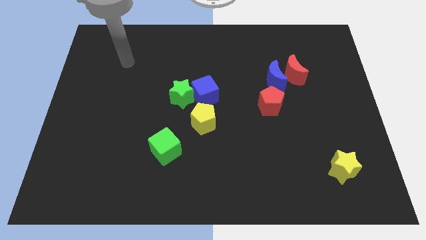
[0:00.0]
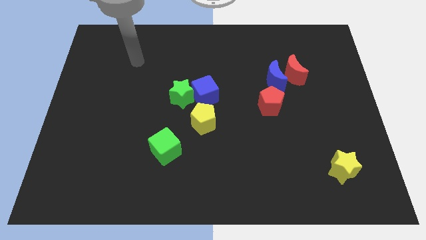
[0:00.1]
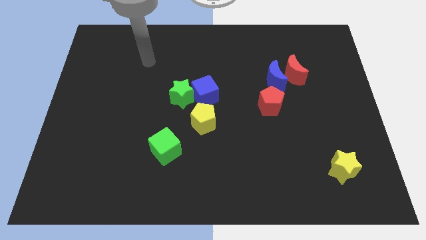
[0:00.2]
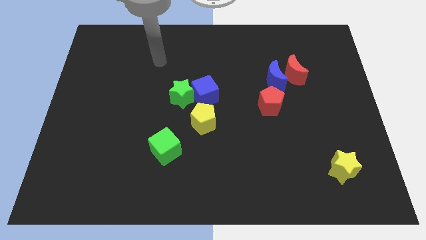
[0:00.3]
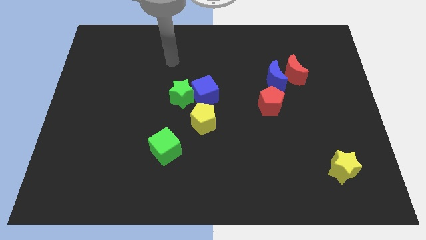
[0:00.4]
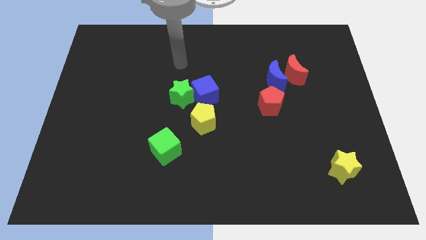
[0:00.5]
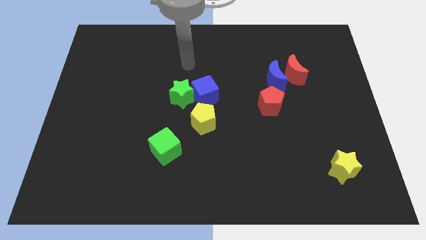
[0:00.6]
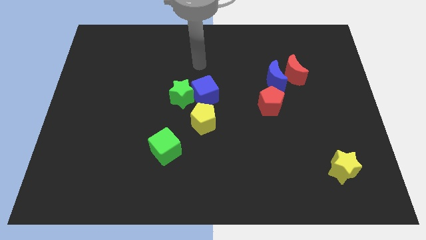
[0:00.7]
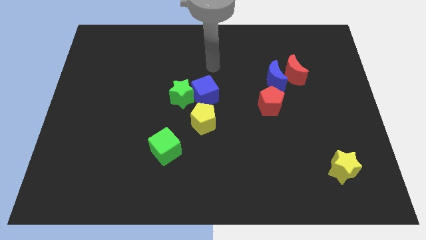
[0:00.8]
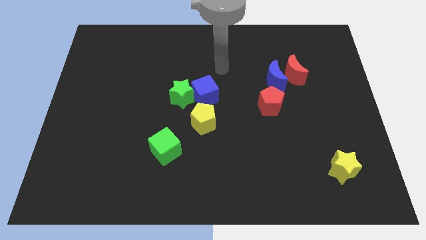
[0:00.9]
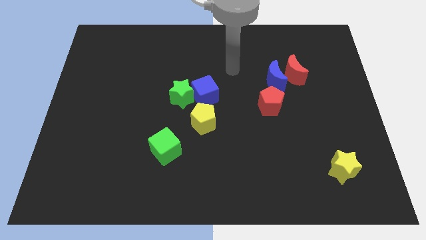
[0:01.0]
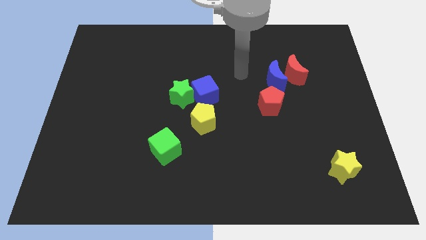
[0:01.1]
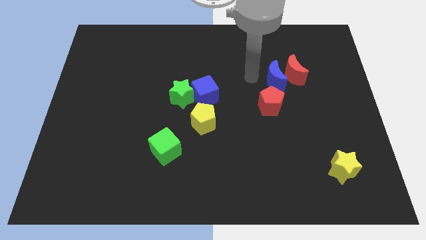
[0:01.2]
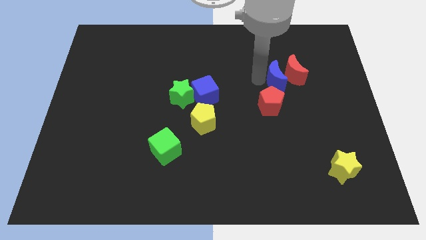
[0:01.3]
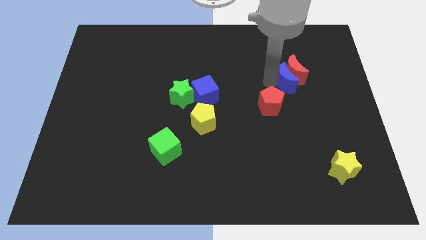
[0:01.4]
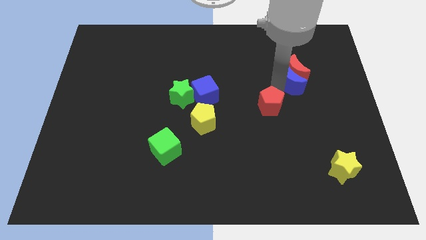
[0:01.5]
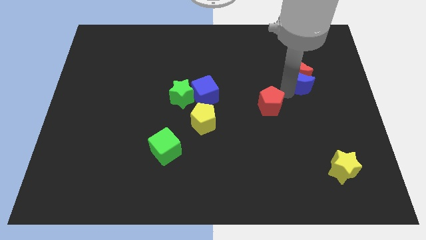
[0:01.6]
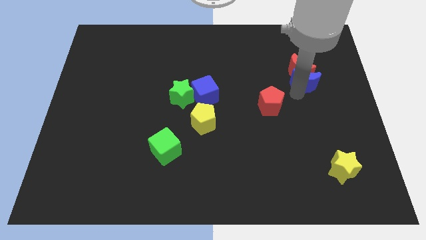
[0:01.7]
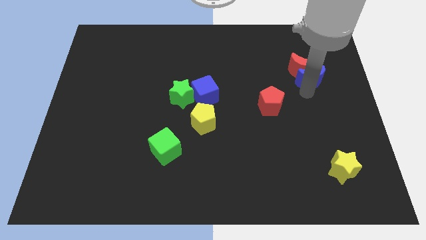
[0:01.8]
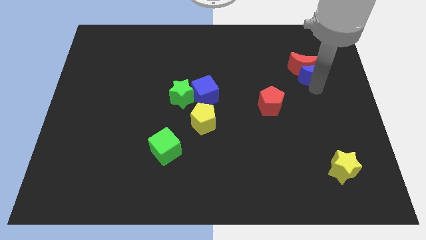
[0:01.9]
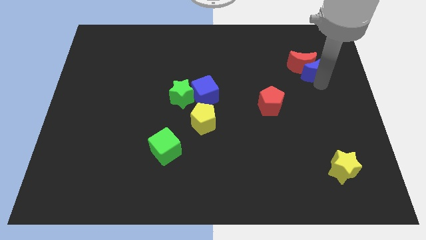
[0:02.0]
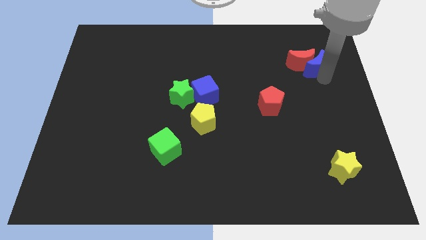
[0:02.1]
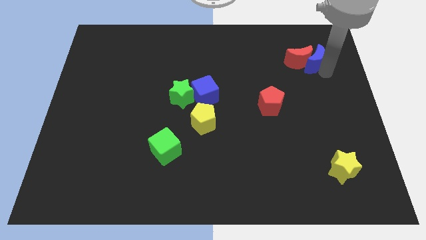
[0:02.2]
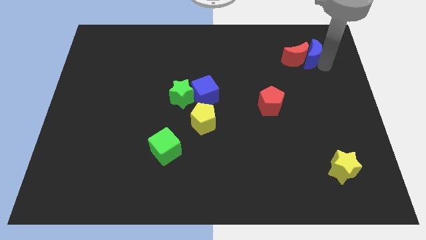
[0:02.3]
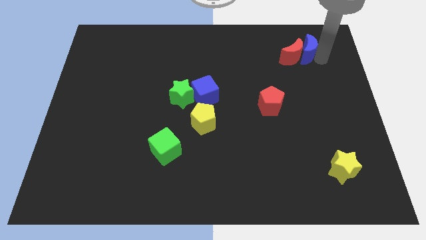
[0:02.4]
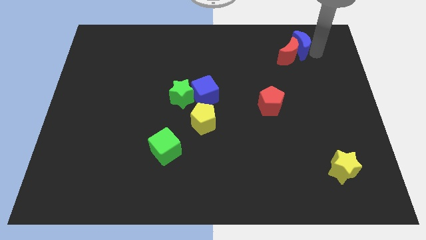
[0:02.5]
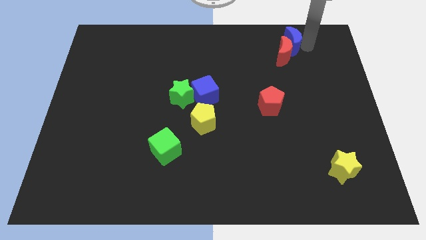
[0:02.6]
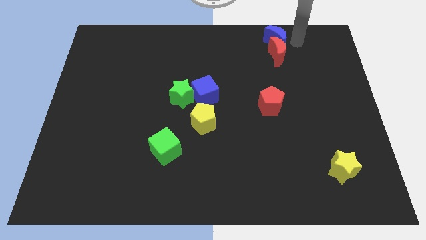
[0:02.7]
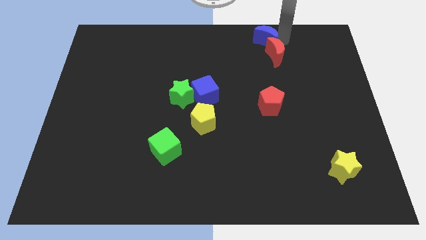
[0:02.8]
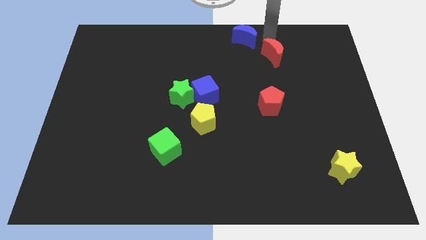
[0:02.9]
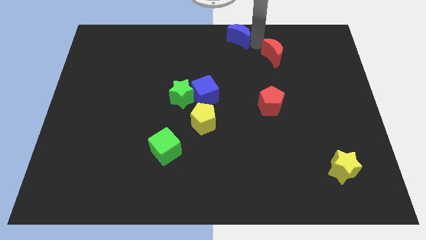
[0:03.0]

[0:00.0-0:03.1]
separate the red moon from the blue moon

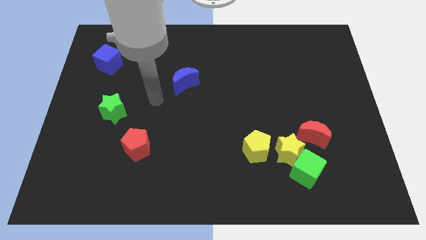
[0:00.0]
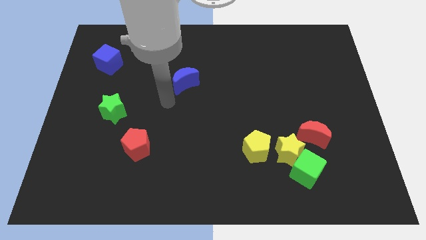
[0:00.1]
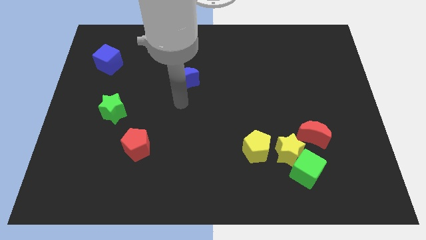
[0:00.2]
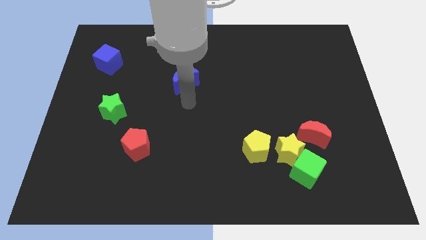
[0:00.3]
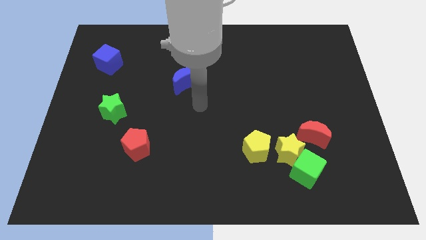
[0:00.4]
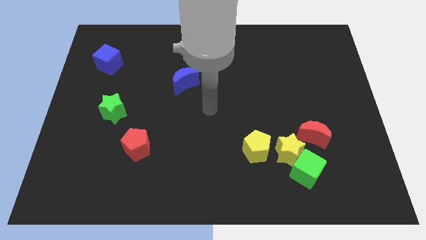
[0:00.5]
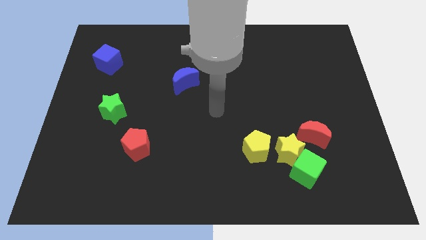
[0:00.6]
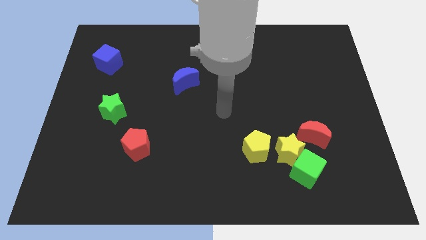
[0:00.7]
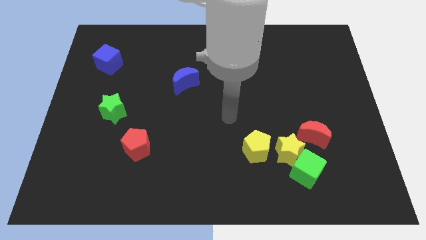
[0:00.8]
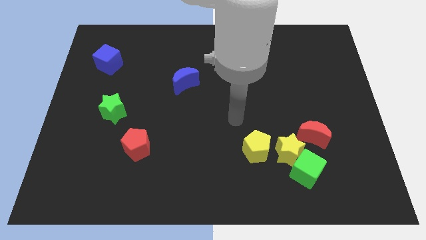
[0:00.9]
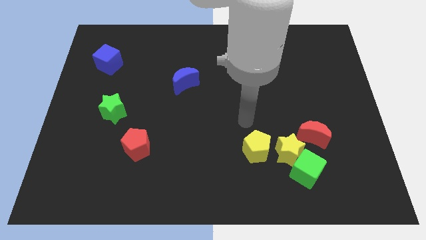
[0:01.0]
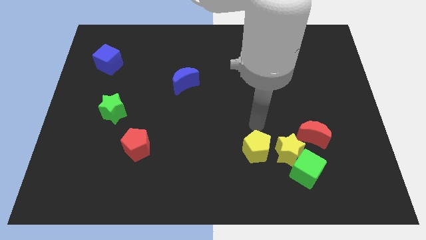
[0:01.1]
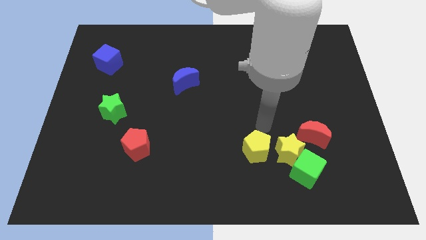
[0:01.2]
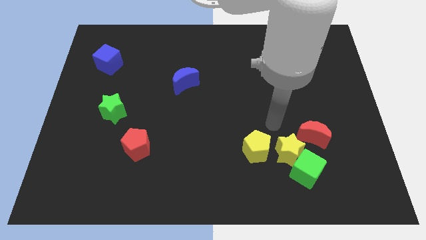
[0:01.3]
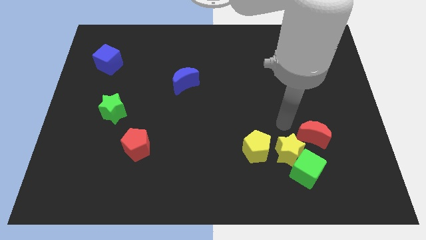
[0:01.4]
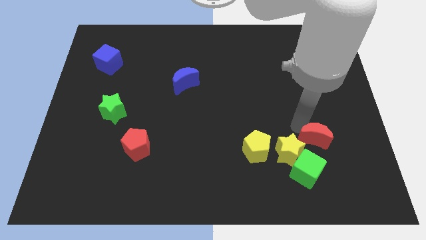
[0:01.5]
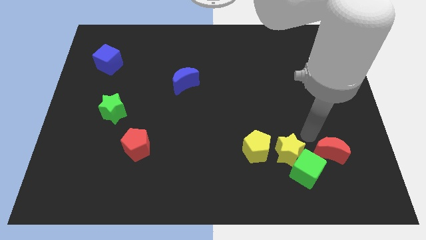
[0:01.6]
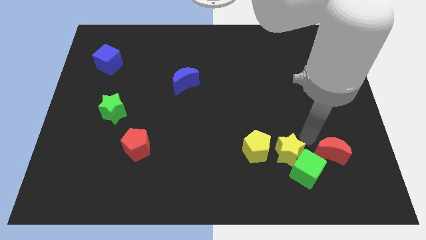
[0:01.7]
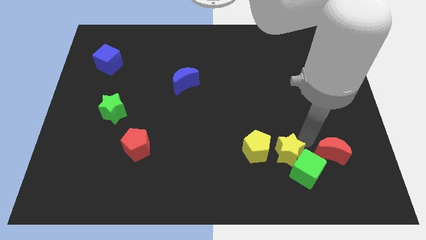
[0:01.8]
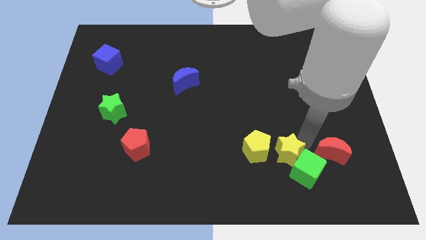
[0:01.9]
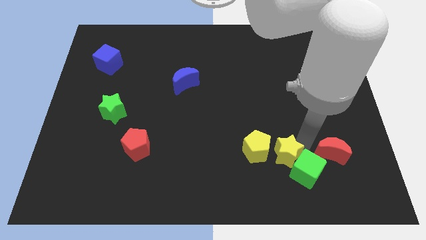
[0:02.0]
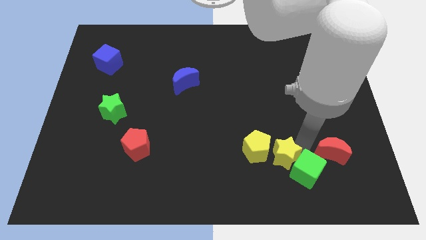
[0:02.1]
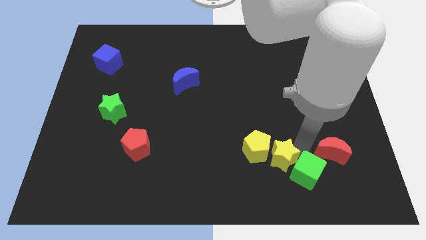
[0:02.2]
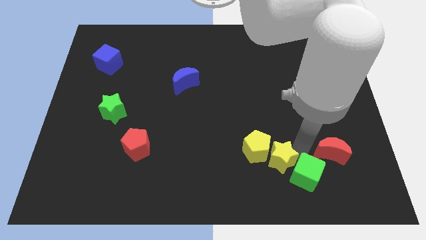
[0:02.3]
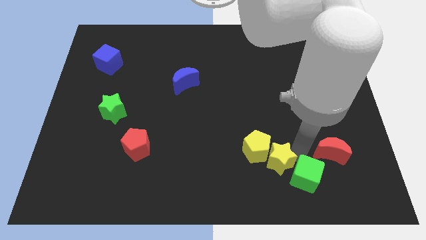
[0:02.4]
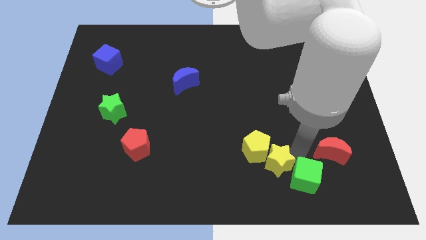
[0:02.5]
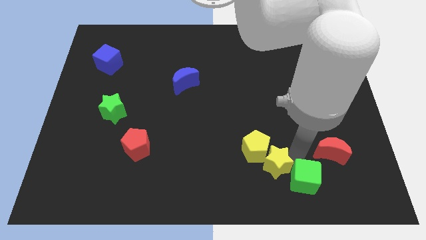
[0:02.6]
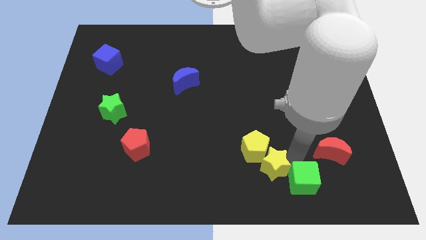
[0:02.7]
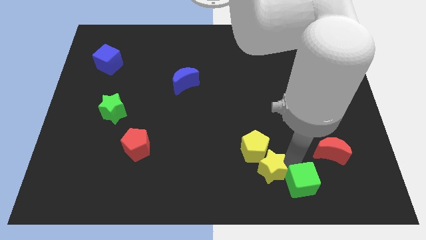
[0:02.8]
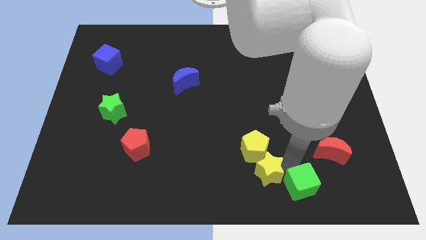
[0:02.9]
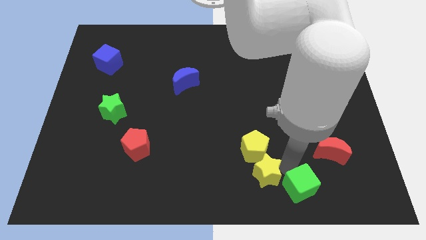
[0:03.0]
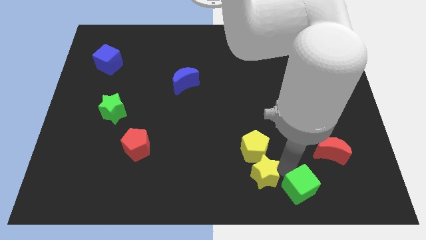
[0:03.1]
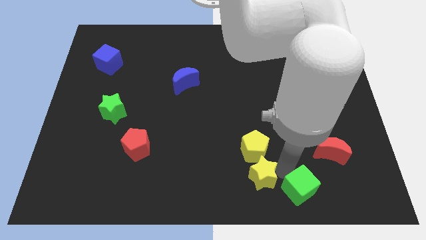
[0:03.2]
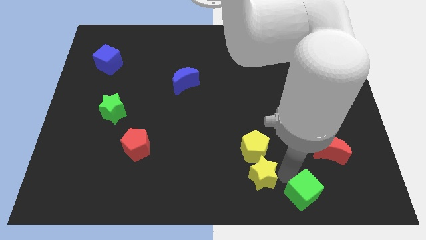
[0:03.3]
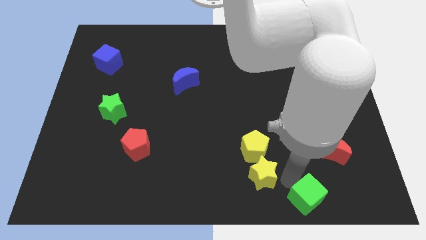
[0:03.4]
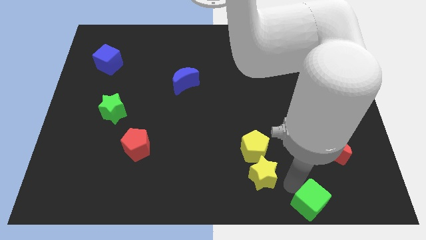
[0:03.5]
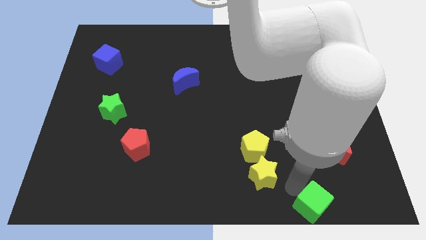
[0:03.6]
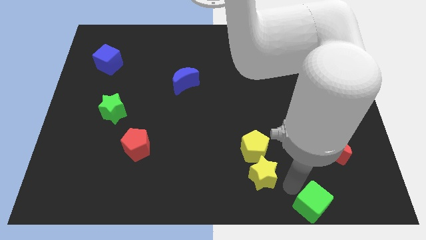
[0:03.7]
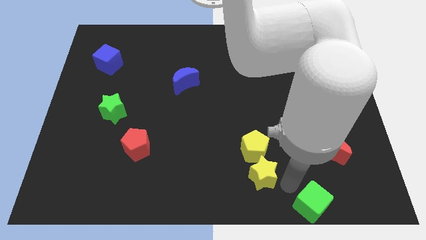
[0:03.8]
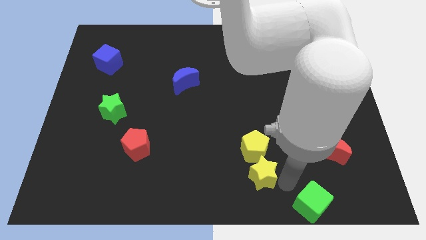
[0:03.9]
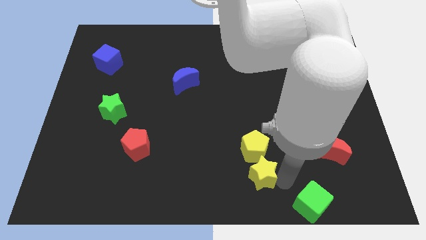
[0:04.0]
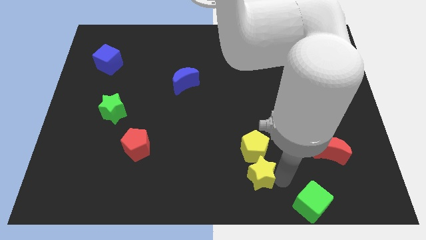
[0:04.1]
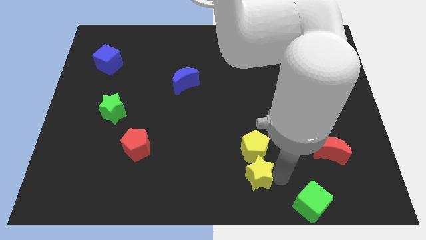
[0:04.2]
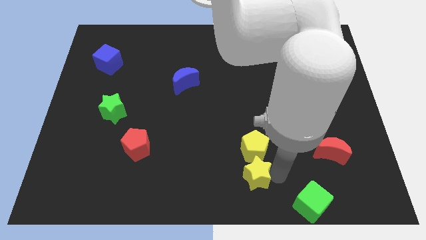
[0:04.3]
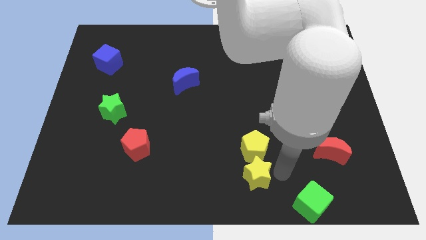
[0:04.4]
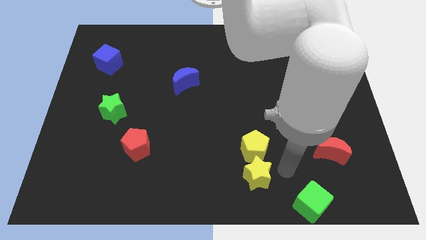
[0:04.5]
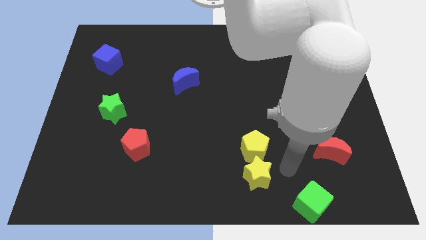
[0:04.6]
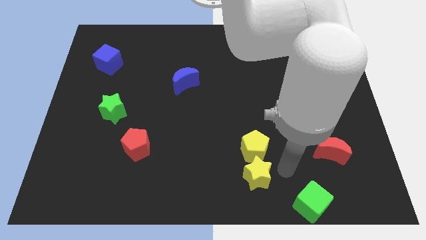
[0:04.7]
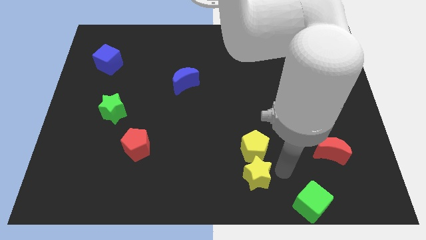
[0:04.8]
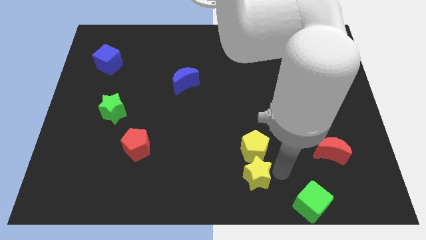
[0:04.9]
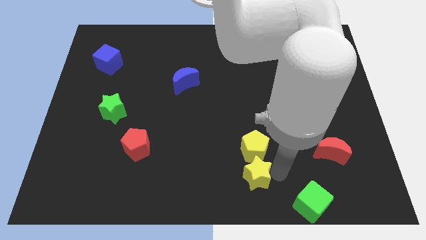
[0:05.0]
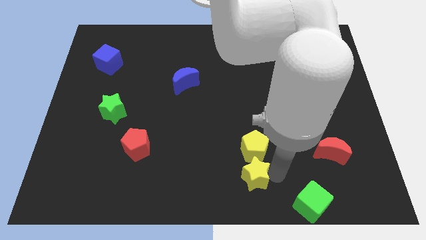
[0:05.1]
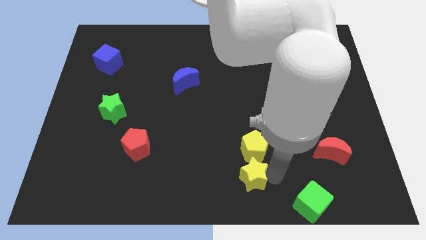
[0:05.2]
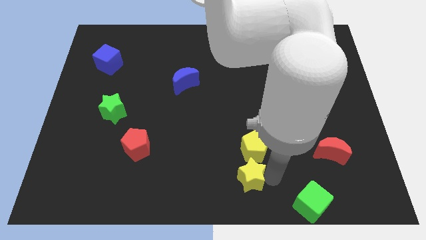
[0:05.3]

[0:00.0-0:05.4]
separate the yellow star from the green cube, yellow pentagon, and red moon

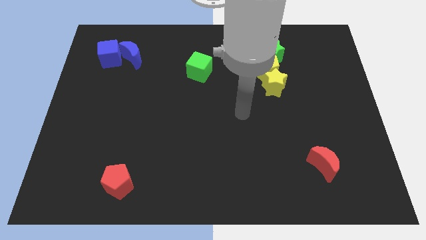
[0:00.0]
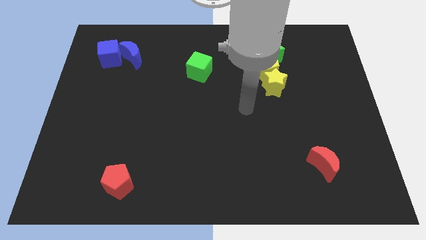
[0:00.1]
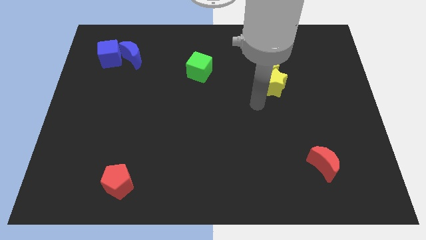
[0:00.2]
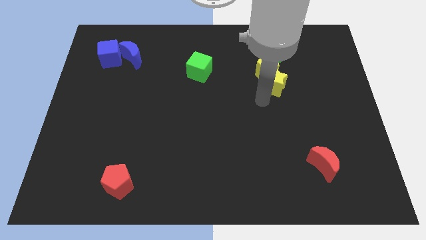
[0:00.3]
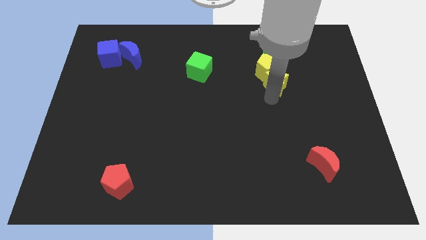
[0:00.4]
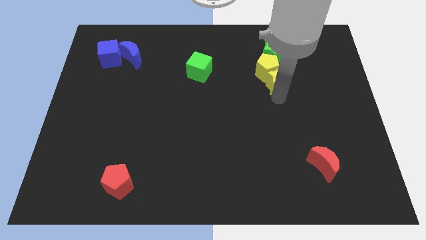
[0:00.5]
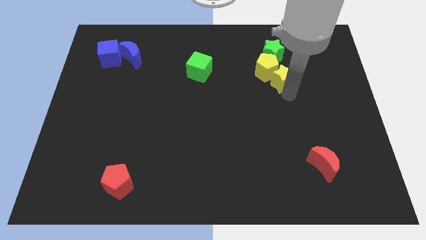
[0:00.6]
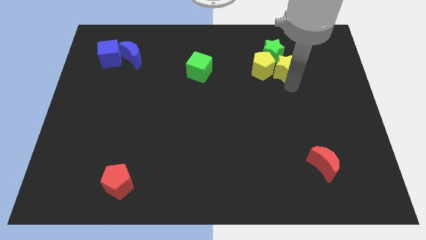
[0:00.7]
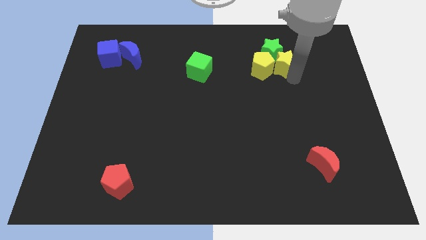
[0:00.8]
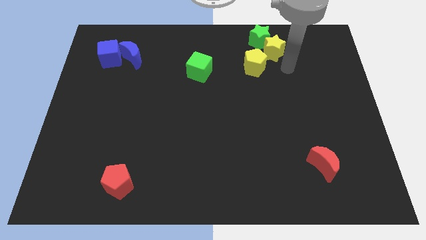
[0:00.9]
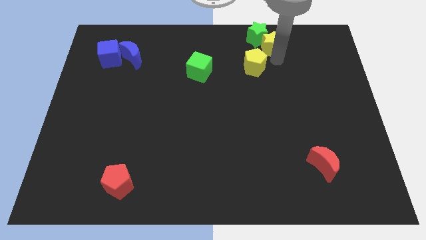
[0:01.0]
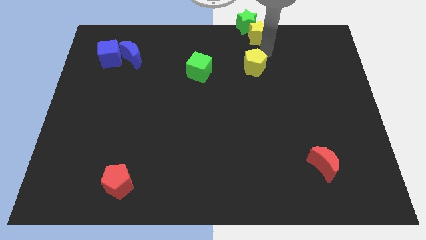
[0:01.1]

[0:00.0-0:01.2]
move the yellow pentagon away from the yellow star and green star
